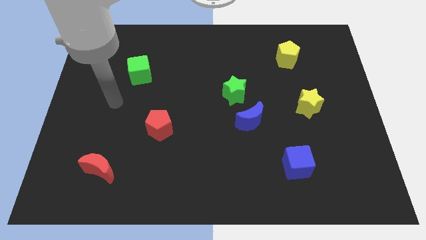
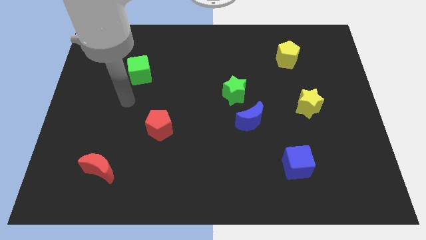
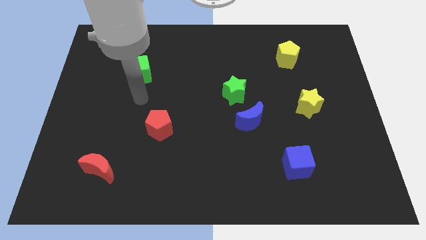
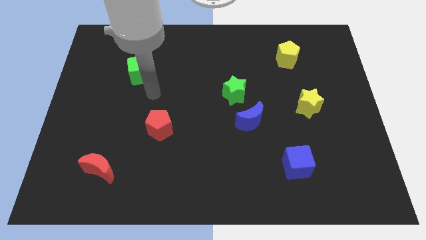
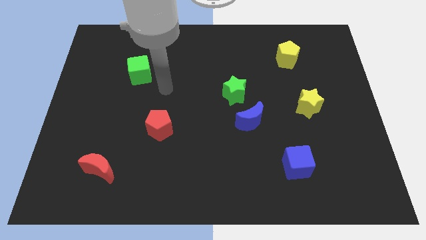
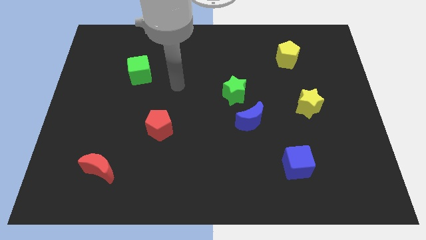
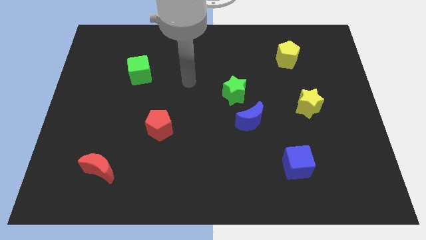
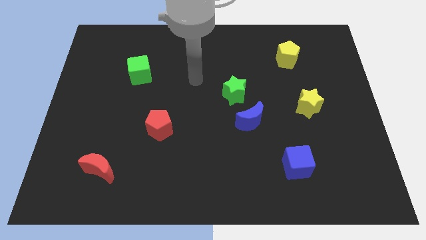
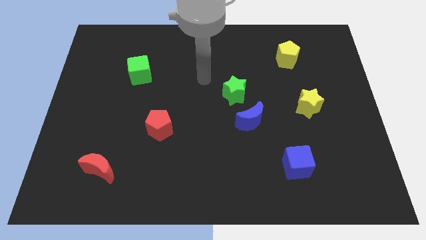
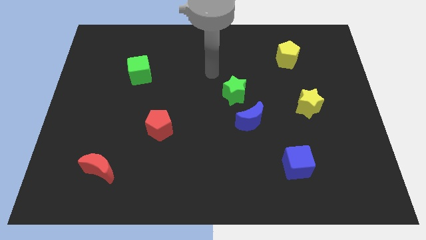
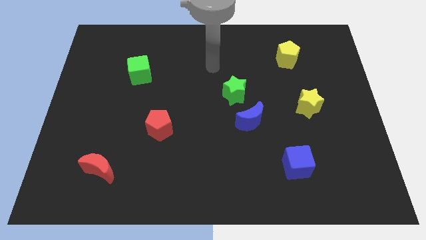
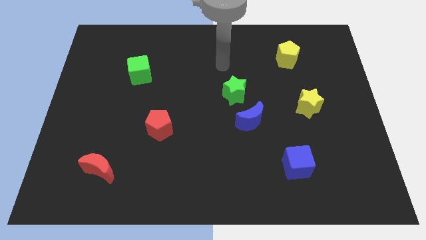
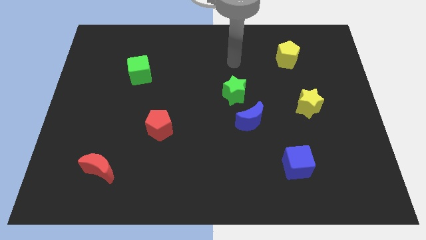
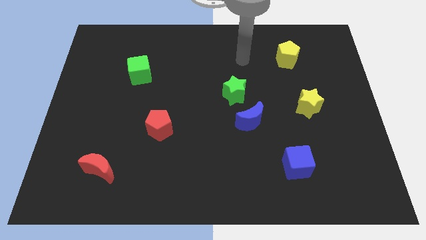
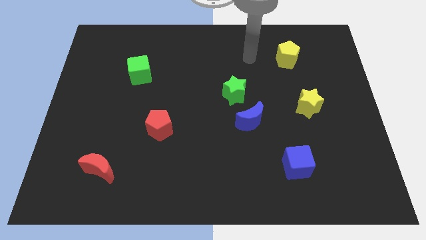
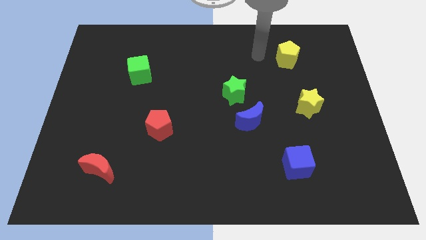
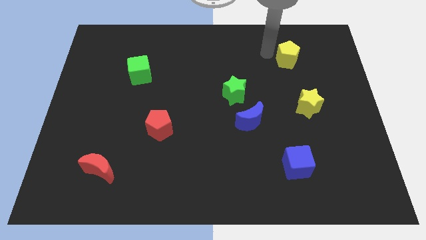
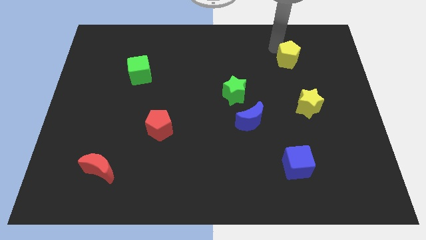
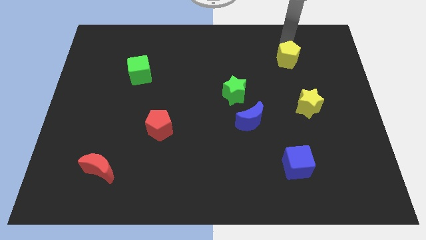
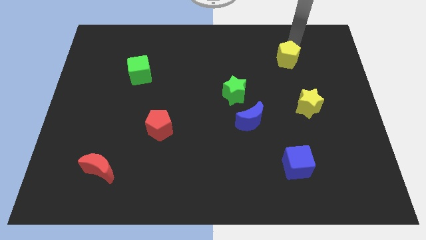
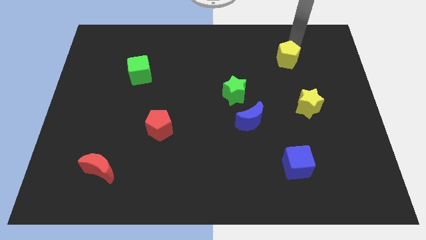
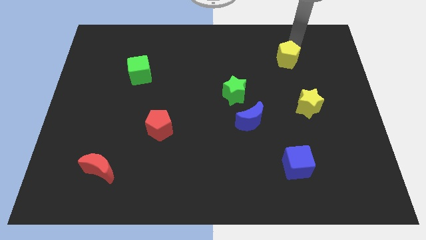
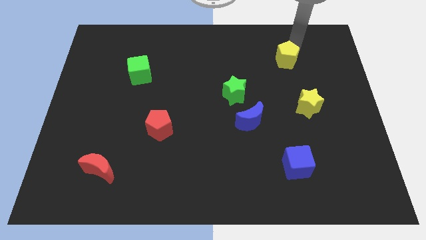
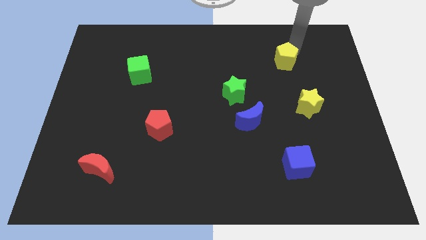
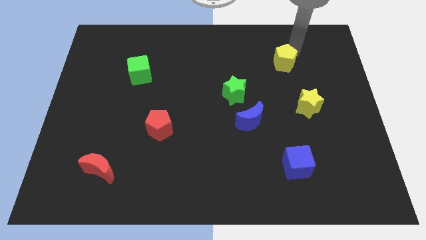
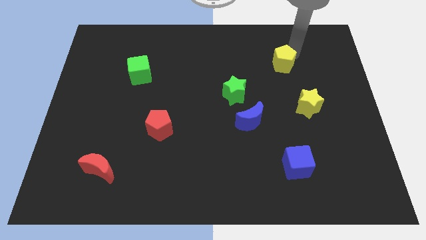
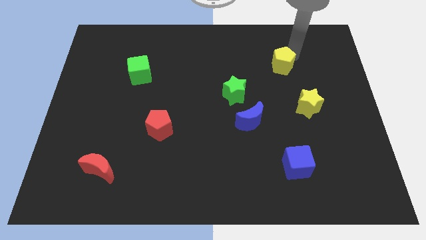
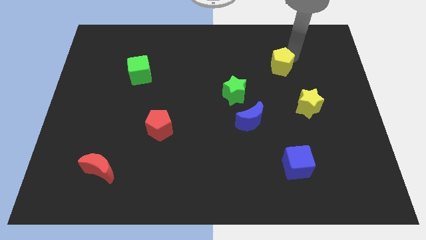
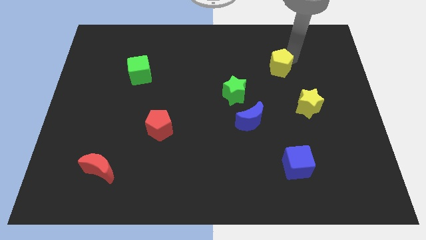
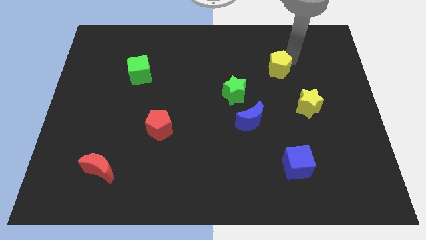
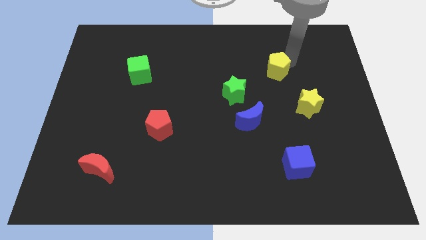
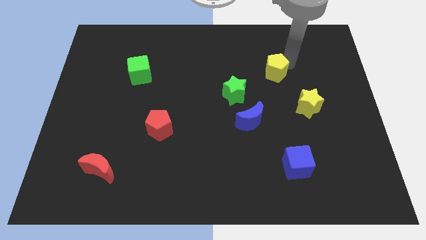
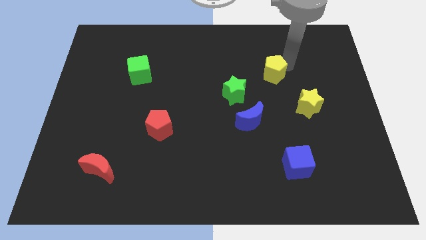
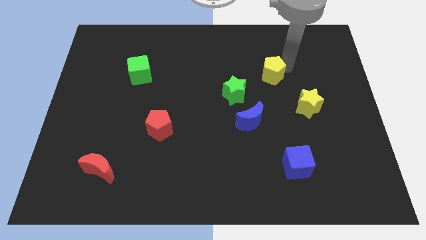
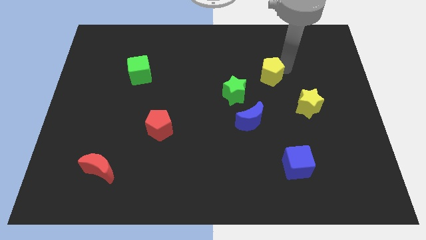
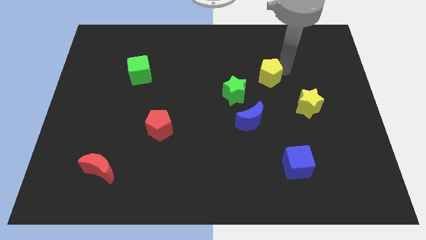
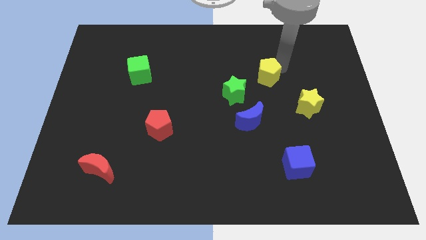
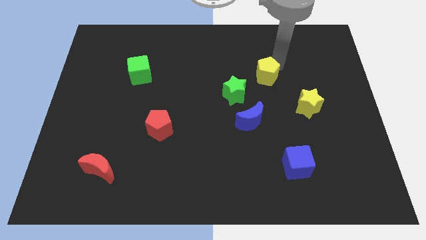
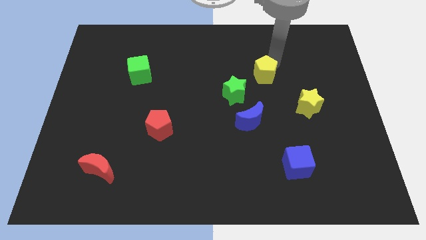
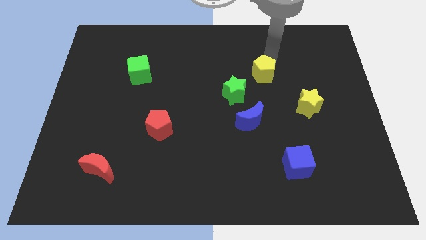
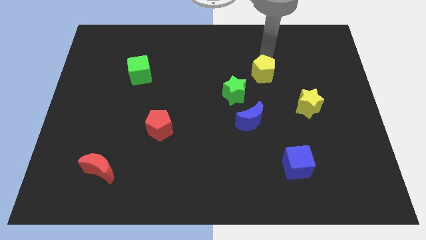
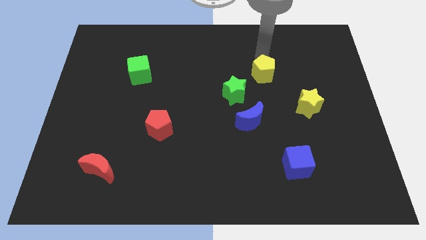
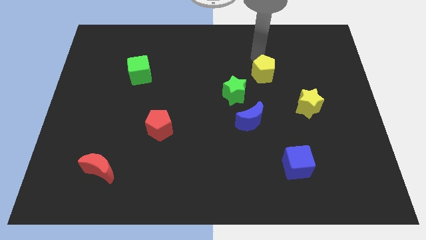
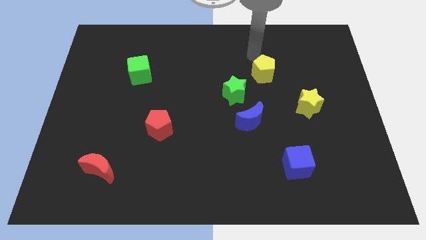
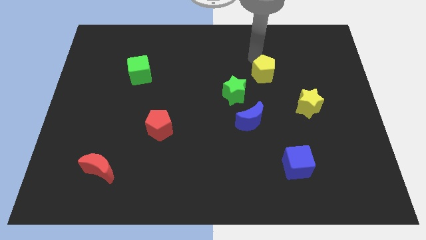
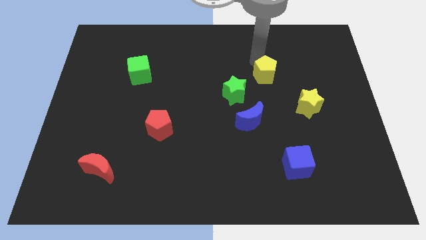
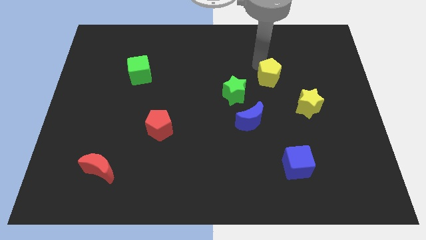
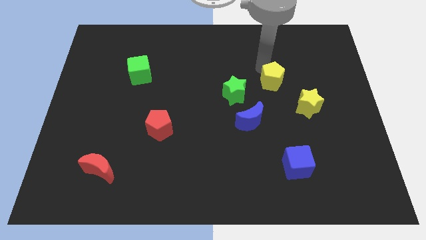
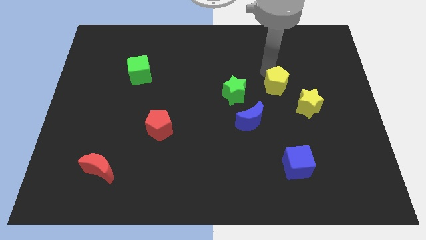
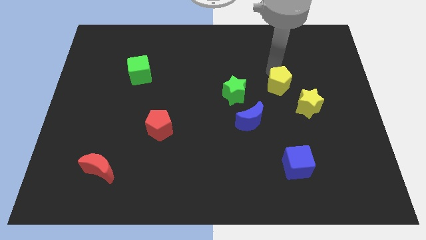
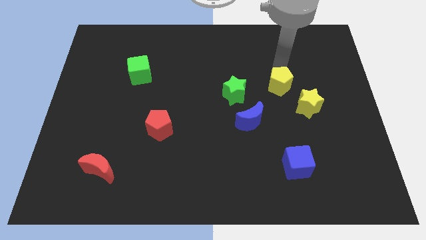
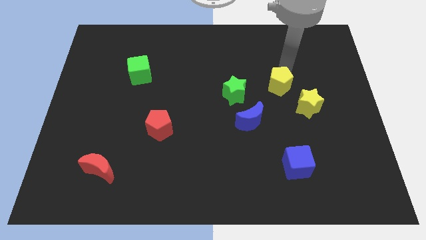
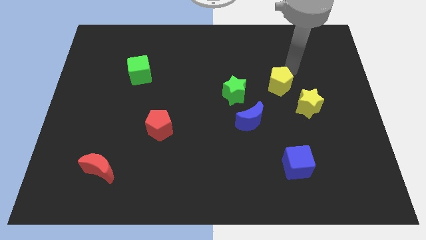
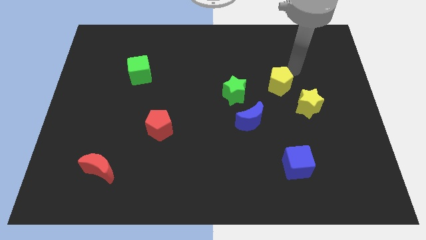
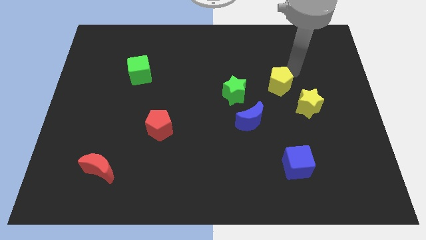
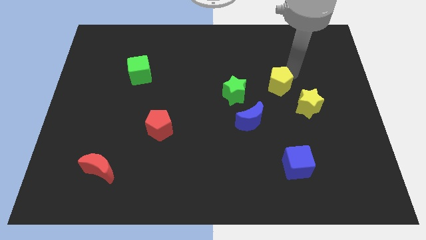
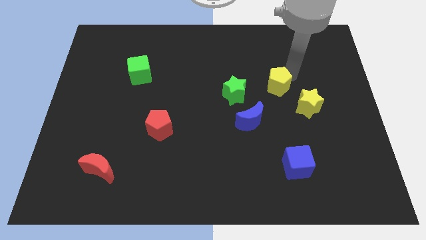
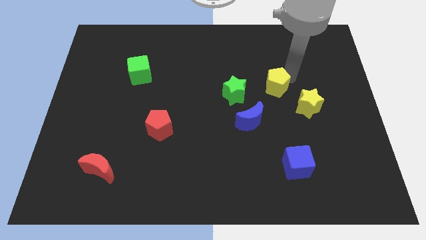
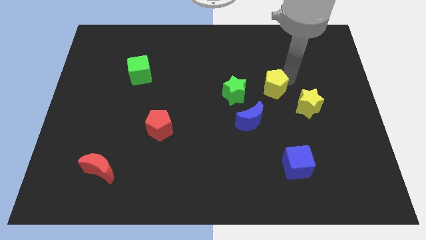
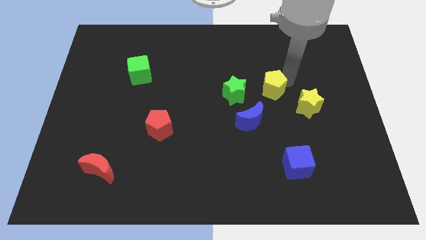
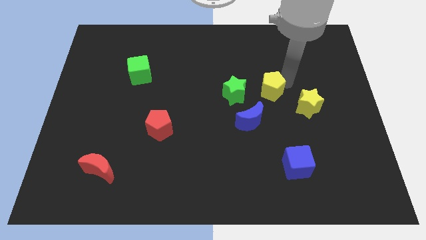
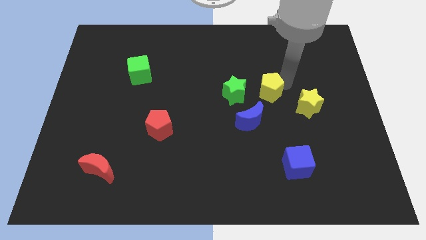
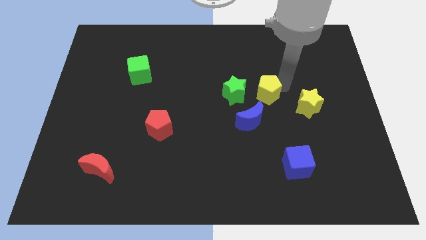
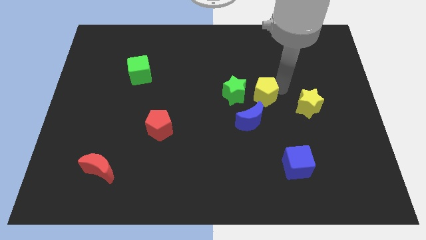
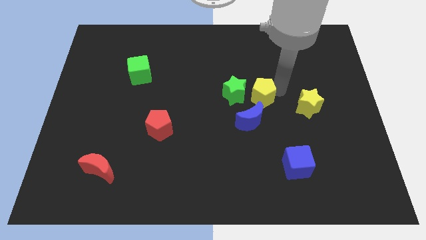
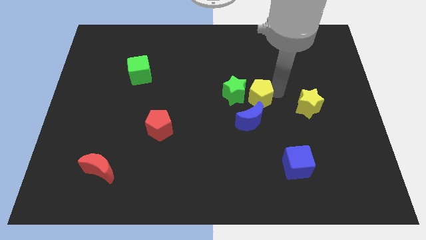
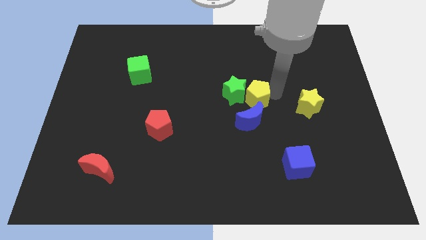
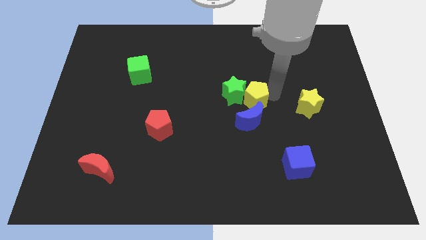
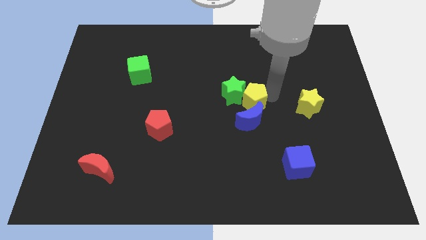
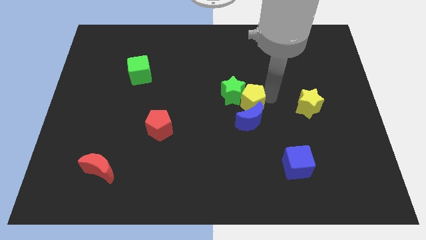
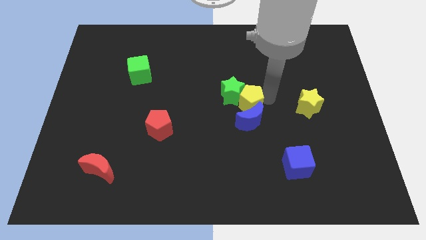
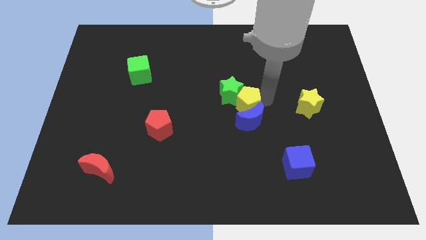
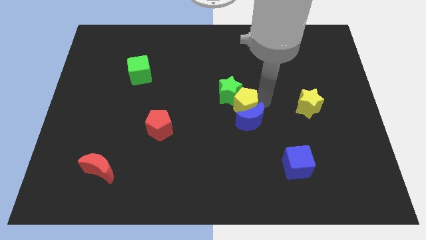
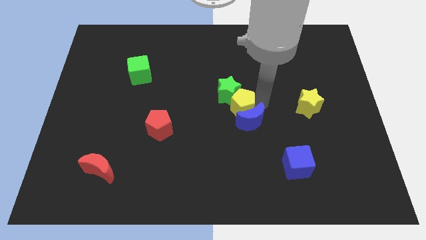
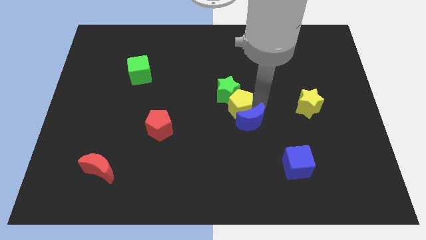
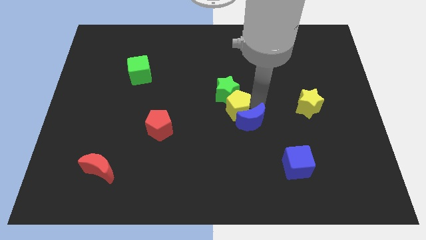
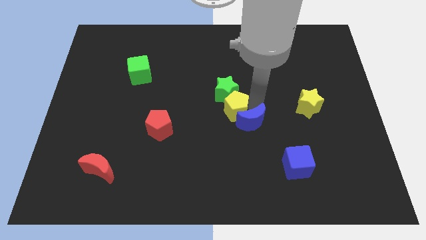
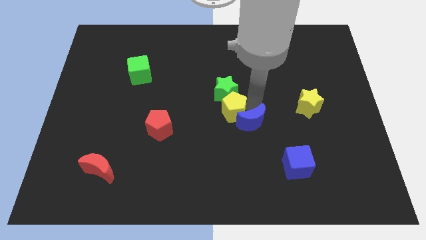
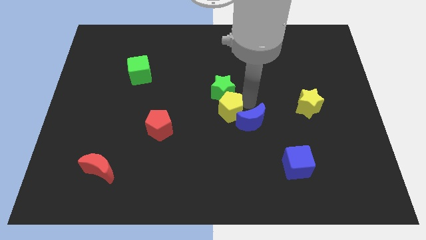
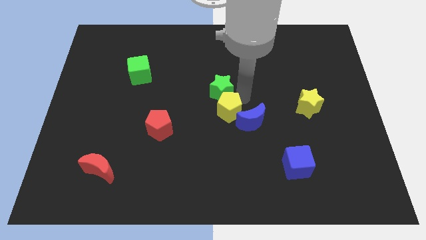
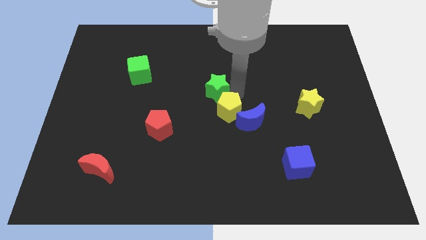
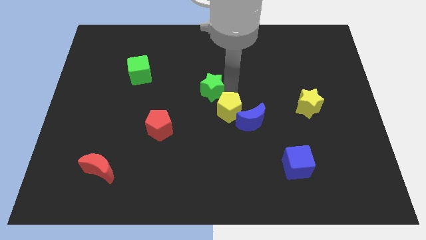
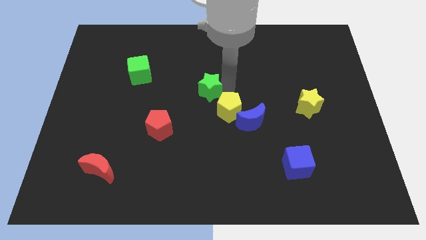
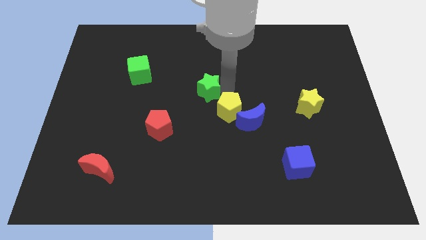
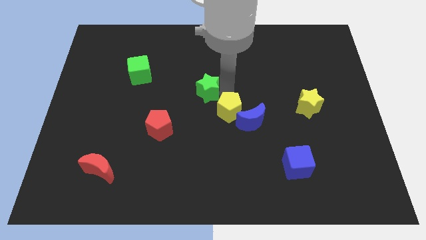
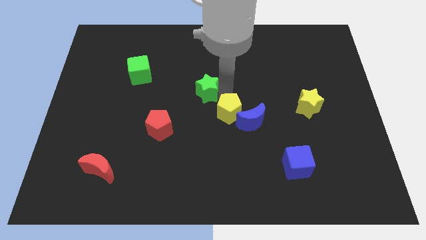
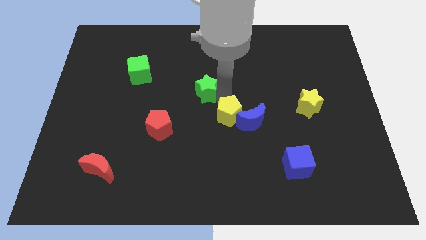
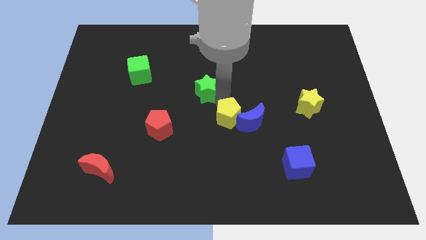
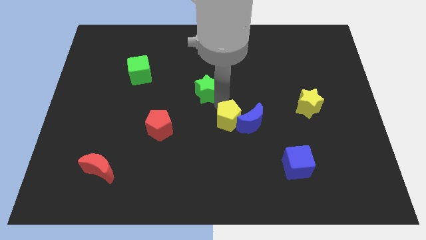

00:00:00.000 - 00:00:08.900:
put the yellow pentagon diagonally down and to the left of the blue moon
